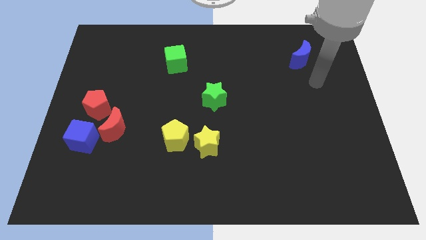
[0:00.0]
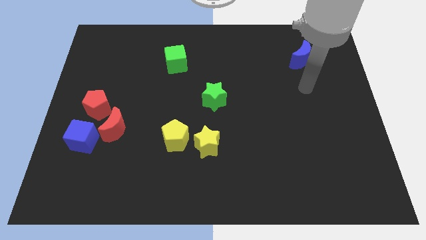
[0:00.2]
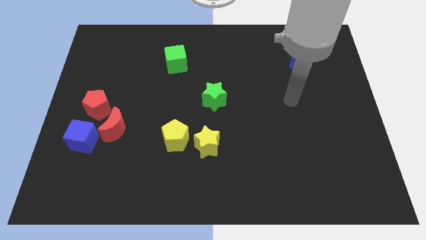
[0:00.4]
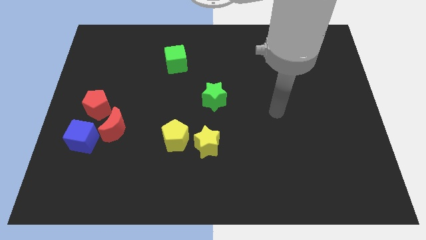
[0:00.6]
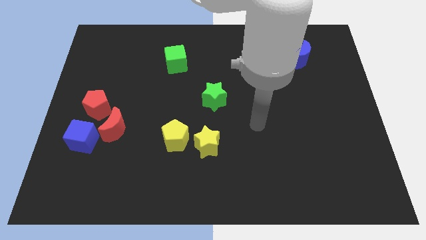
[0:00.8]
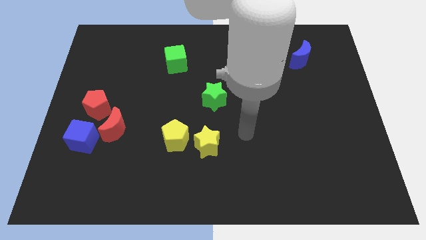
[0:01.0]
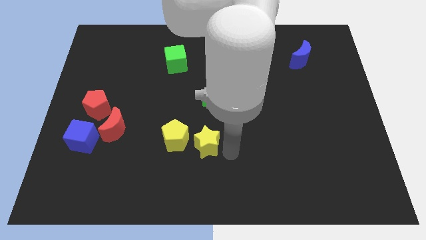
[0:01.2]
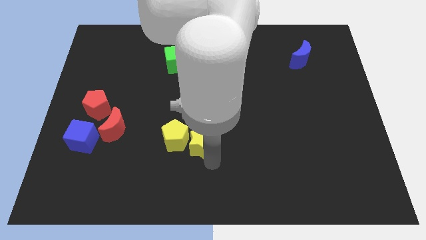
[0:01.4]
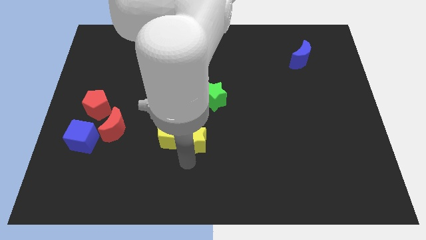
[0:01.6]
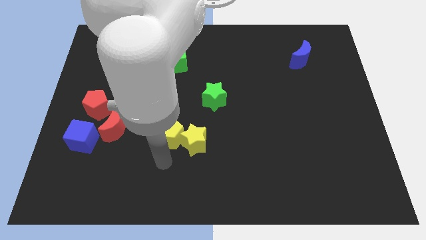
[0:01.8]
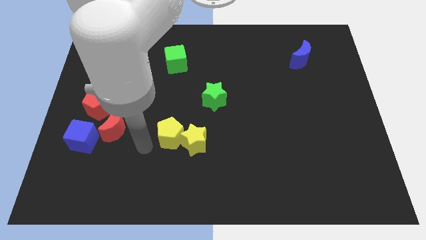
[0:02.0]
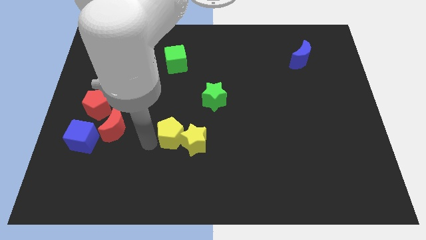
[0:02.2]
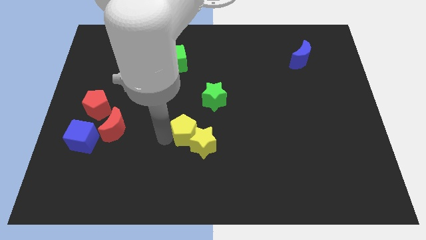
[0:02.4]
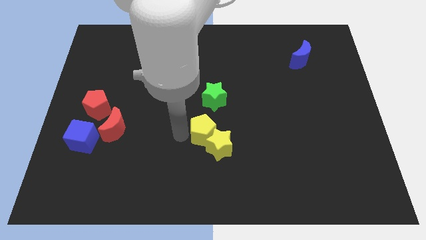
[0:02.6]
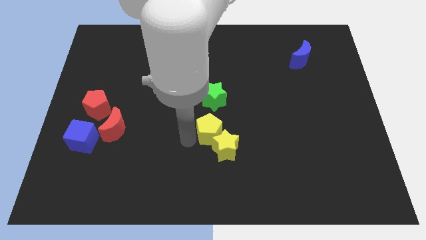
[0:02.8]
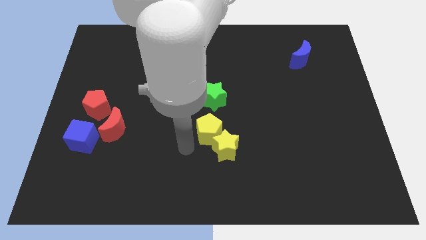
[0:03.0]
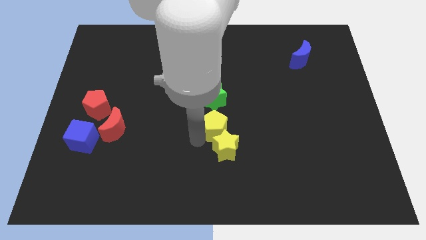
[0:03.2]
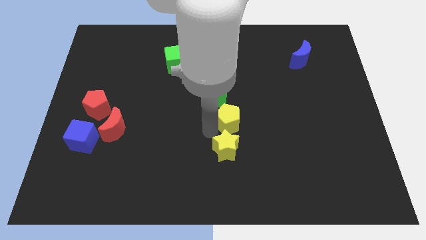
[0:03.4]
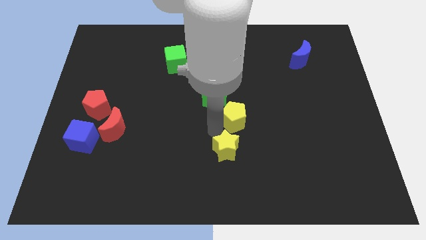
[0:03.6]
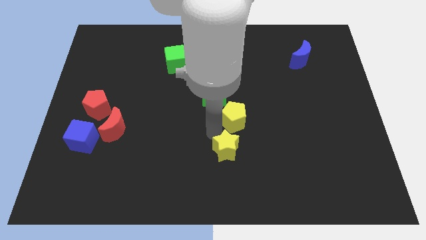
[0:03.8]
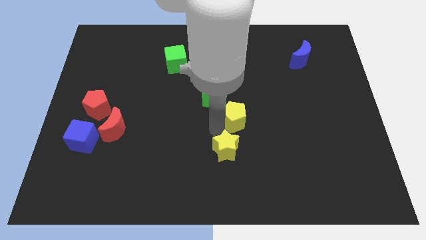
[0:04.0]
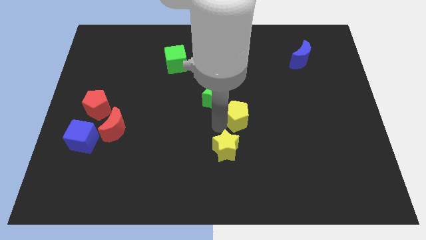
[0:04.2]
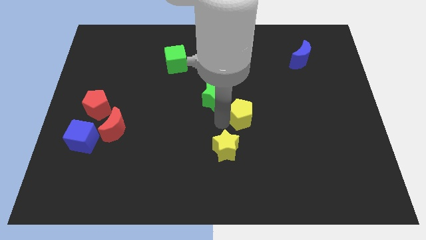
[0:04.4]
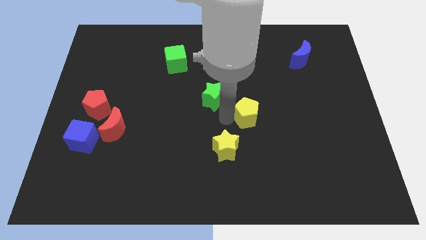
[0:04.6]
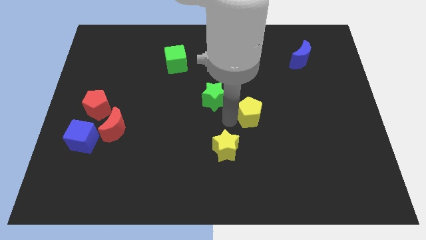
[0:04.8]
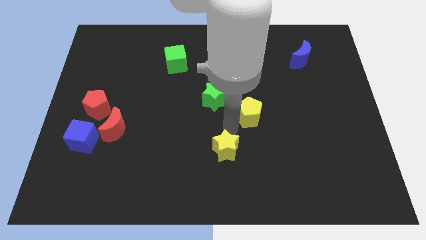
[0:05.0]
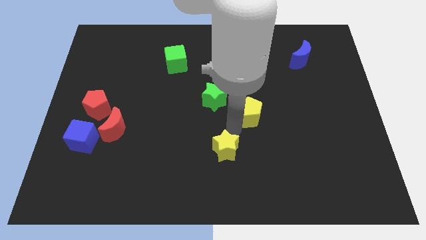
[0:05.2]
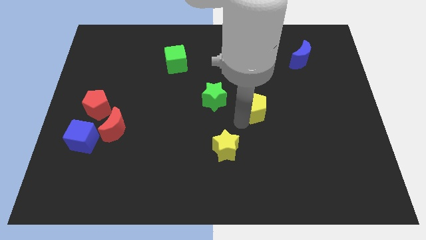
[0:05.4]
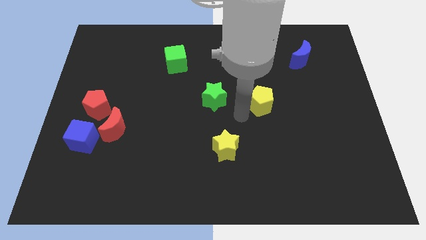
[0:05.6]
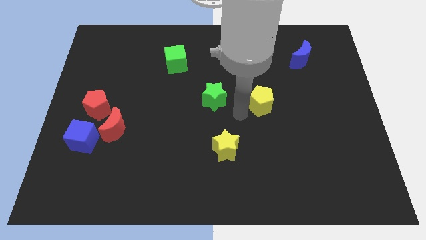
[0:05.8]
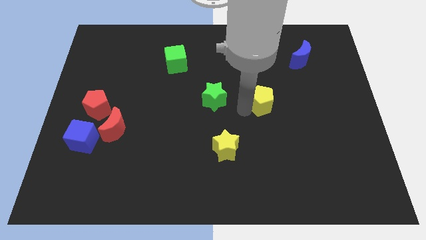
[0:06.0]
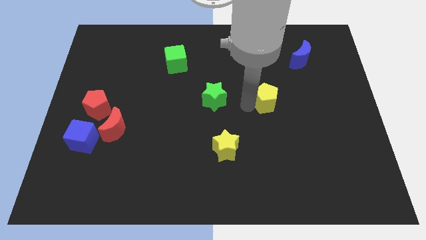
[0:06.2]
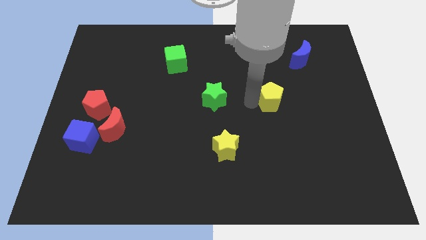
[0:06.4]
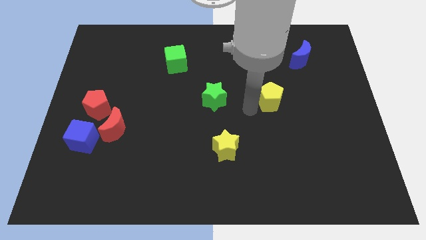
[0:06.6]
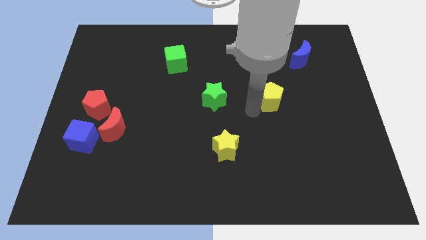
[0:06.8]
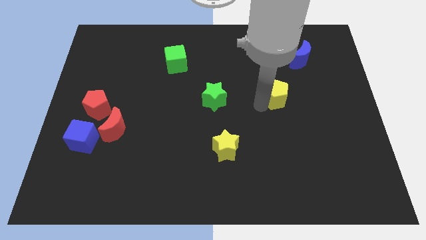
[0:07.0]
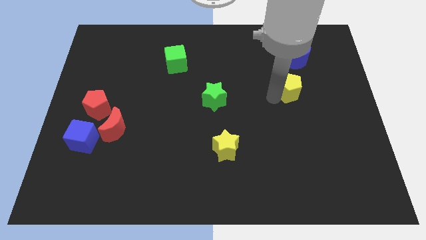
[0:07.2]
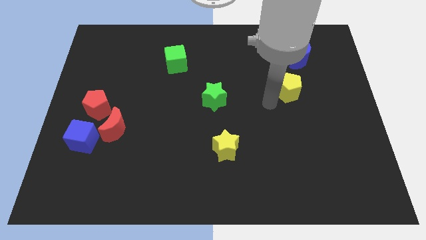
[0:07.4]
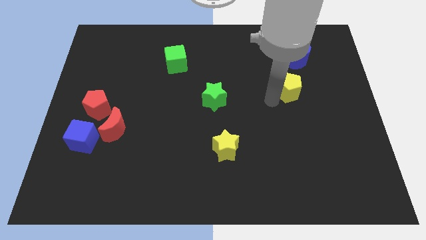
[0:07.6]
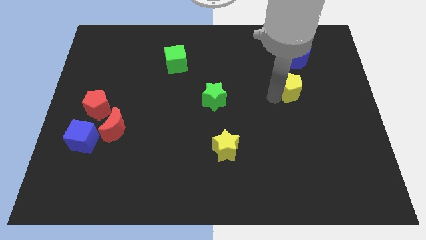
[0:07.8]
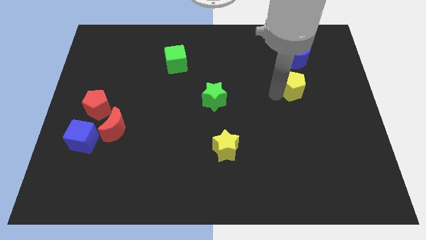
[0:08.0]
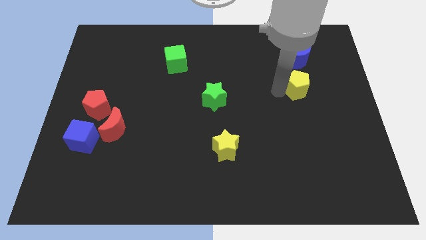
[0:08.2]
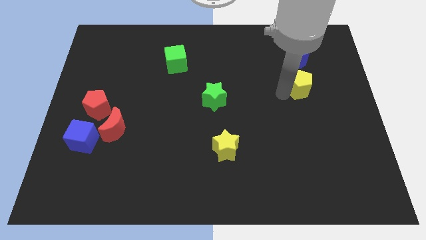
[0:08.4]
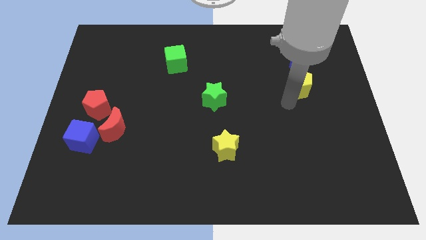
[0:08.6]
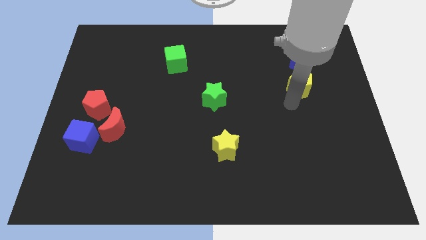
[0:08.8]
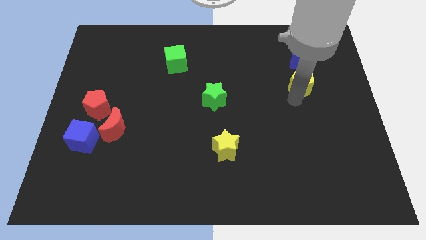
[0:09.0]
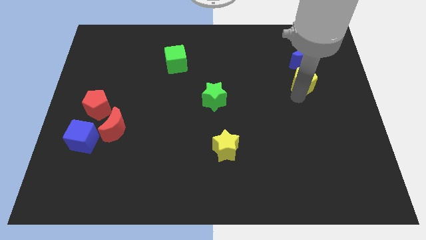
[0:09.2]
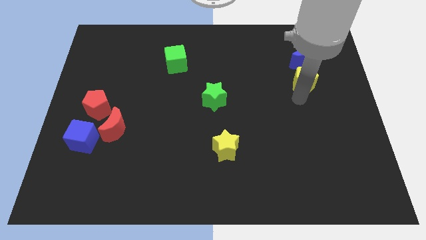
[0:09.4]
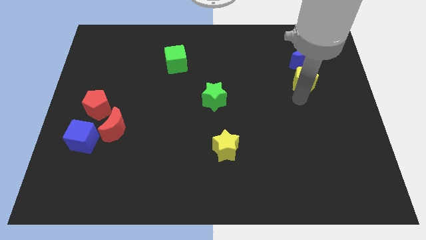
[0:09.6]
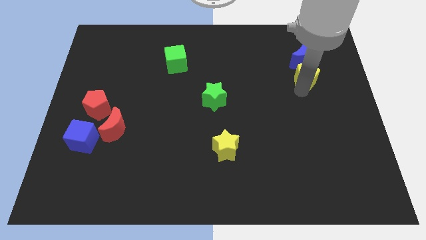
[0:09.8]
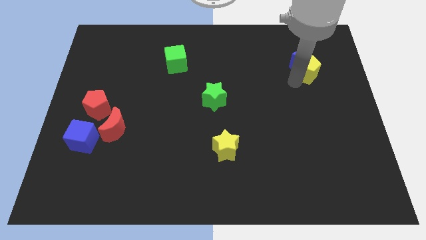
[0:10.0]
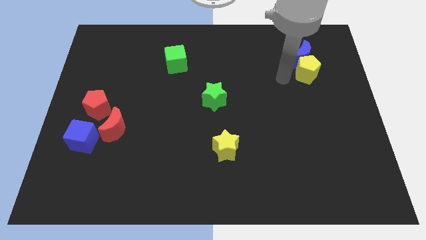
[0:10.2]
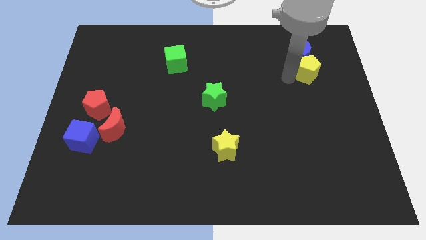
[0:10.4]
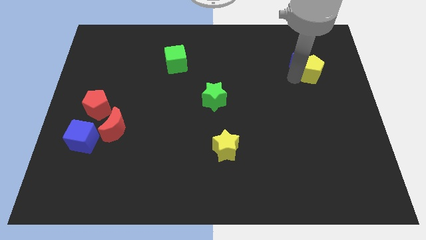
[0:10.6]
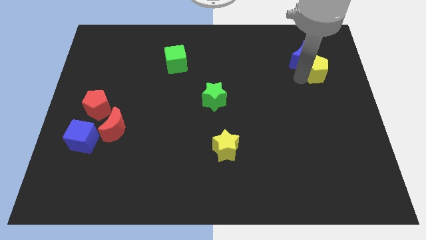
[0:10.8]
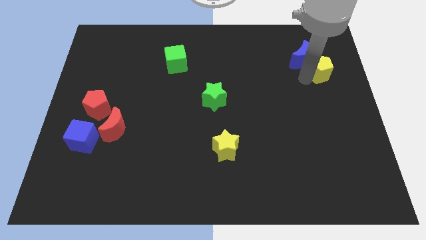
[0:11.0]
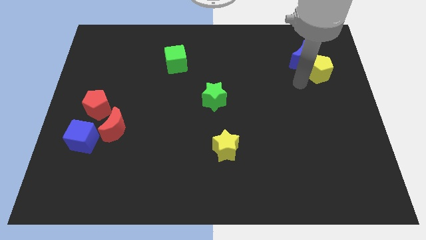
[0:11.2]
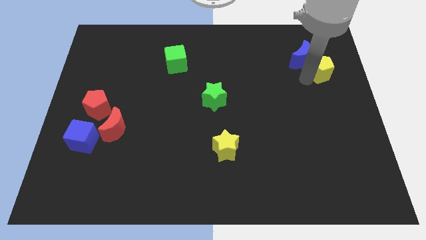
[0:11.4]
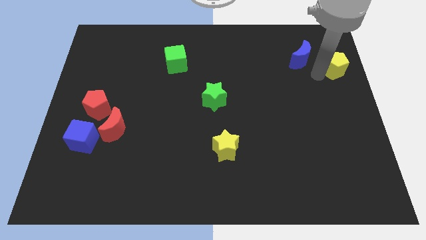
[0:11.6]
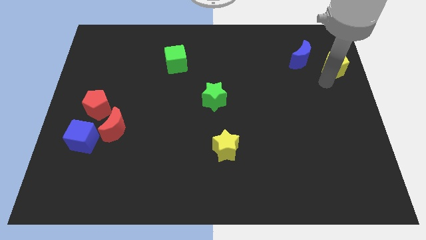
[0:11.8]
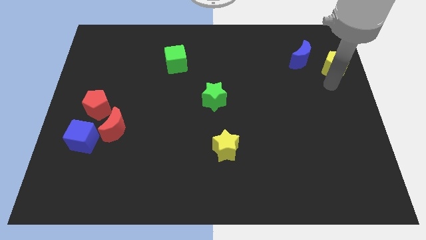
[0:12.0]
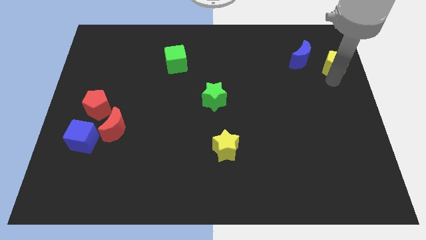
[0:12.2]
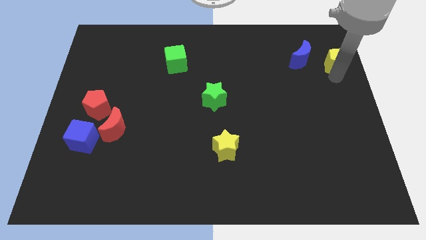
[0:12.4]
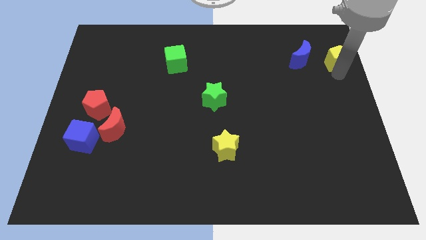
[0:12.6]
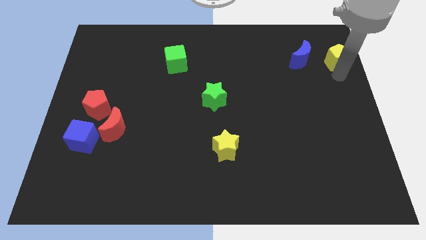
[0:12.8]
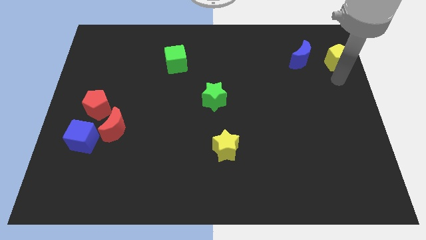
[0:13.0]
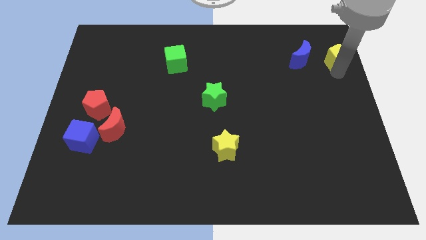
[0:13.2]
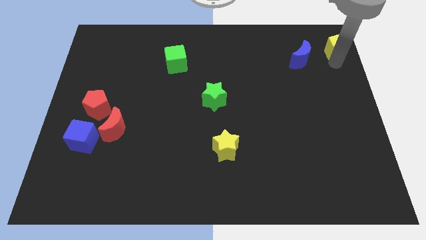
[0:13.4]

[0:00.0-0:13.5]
slide the yellow pentagon to the top right

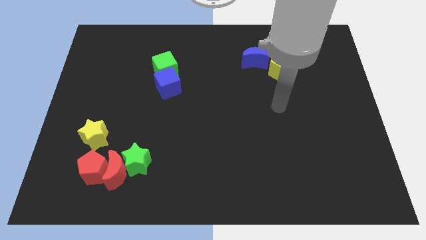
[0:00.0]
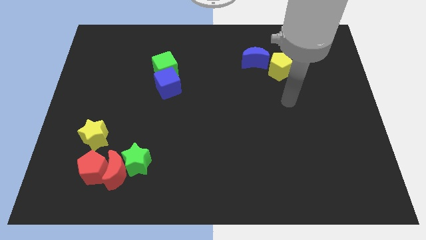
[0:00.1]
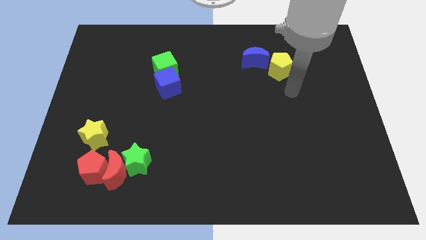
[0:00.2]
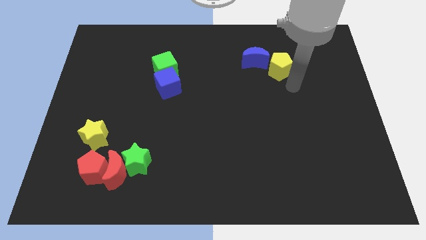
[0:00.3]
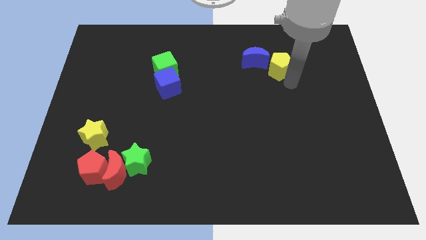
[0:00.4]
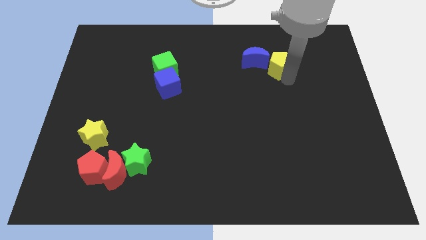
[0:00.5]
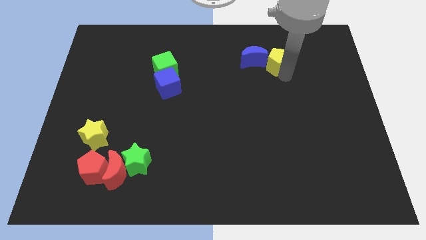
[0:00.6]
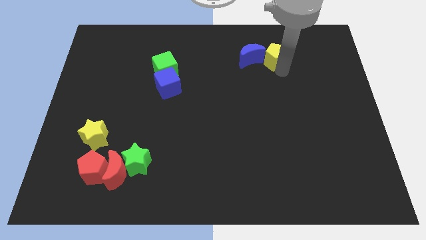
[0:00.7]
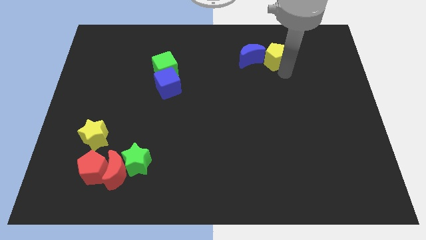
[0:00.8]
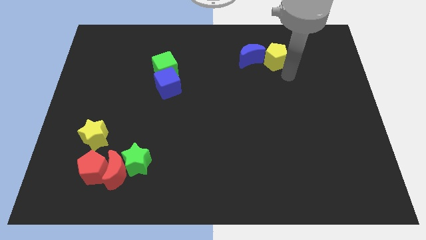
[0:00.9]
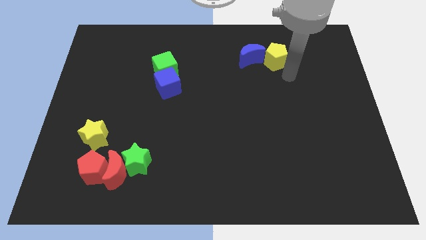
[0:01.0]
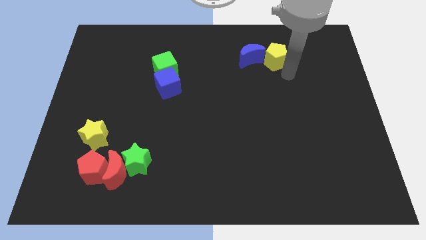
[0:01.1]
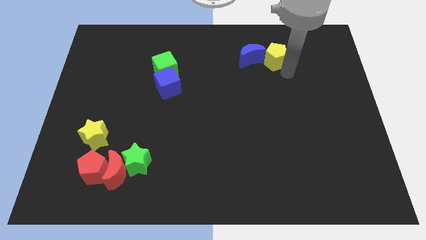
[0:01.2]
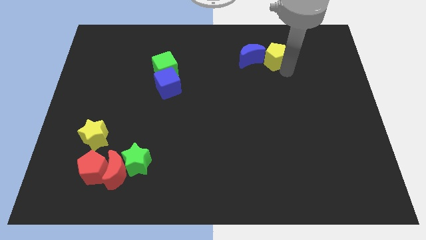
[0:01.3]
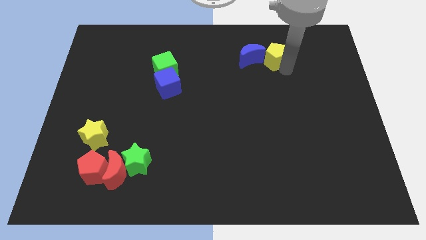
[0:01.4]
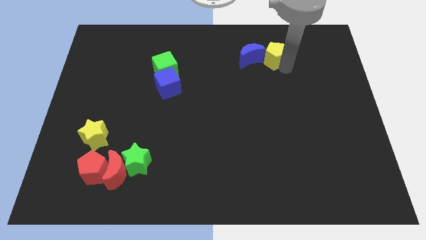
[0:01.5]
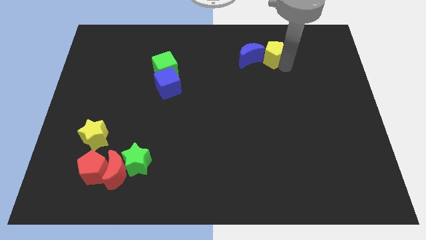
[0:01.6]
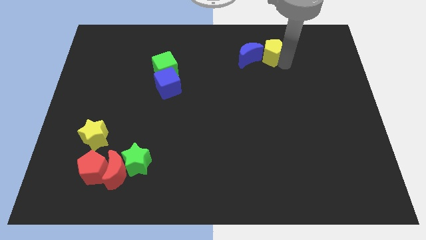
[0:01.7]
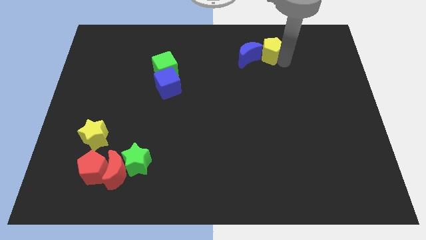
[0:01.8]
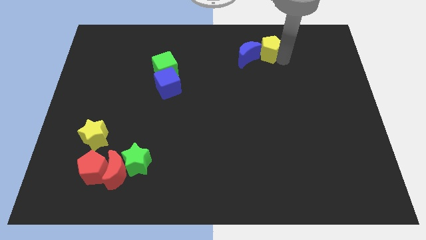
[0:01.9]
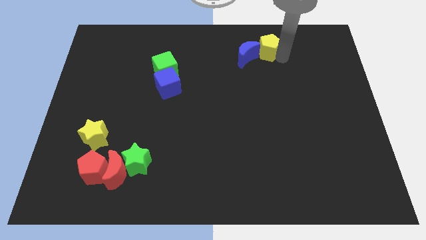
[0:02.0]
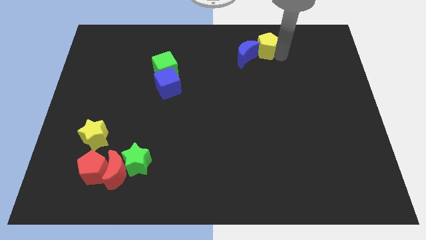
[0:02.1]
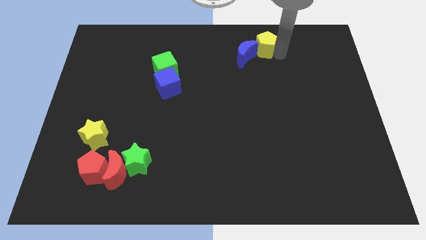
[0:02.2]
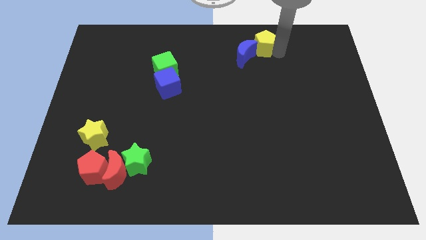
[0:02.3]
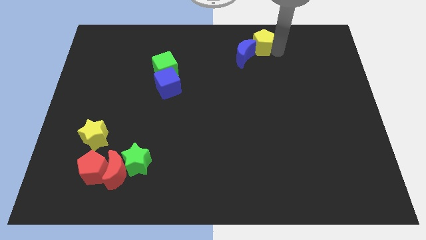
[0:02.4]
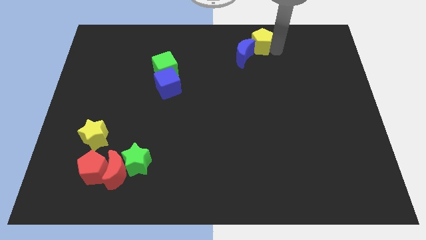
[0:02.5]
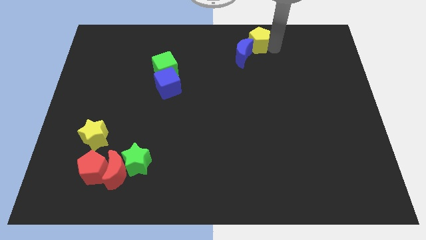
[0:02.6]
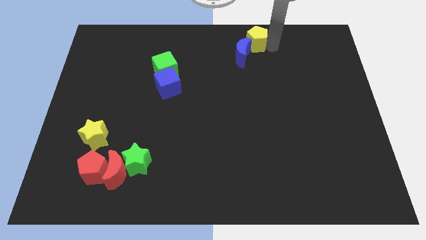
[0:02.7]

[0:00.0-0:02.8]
push the yellow pentagon to the towards your base
